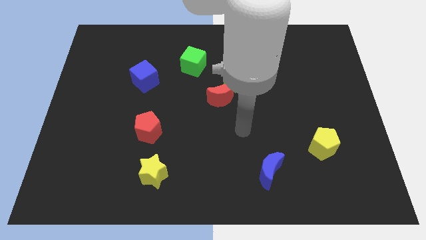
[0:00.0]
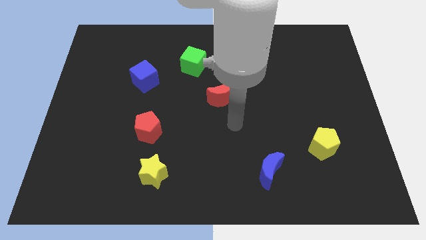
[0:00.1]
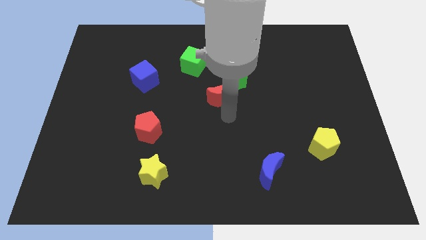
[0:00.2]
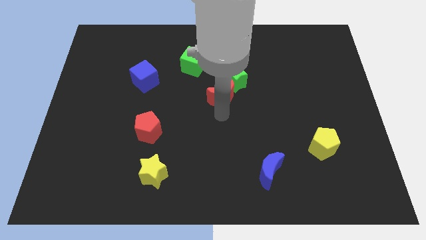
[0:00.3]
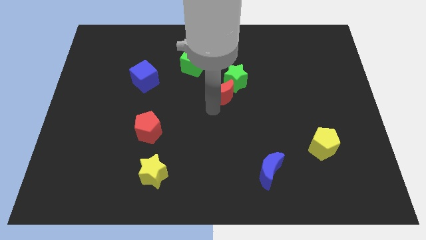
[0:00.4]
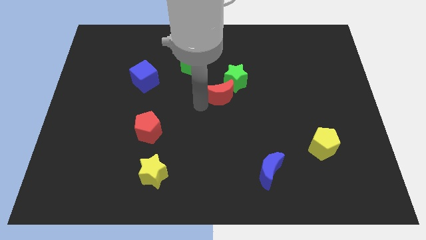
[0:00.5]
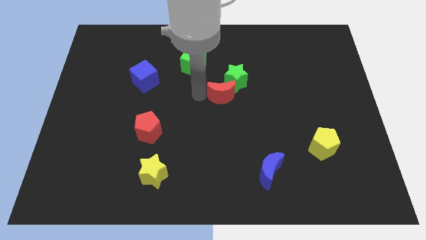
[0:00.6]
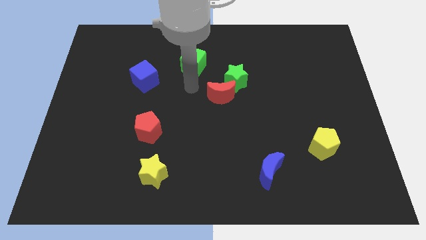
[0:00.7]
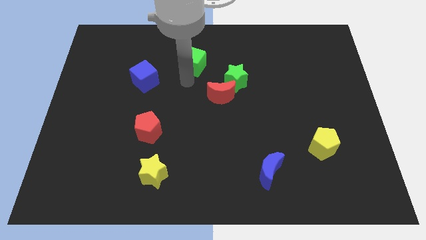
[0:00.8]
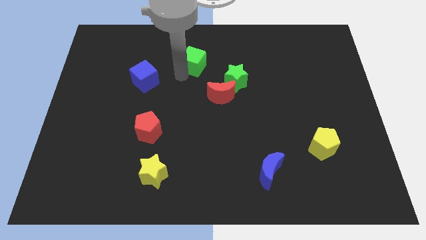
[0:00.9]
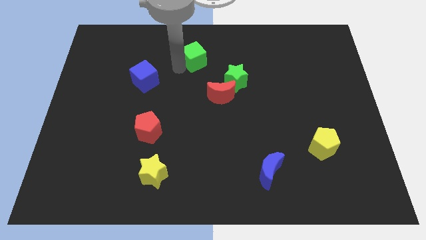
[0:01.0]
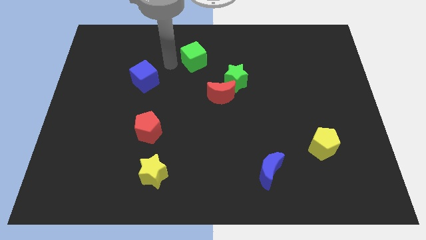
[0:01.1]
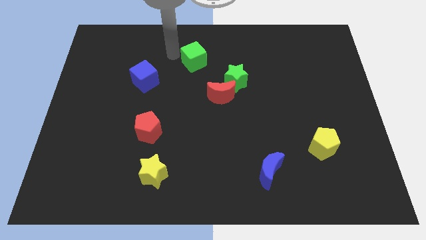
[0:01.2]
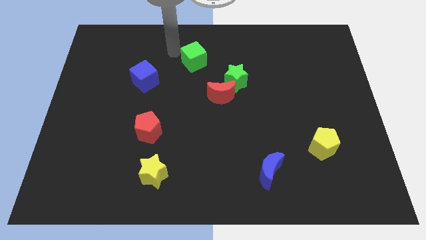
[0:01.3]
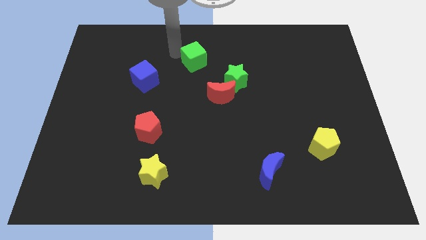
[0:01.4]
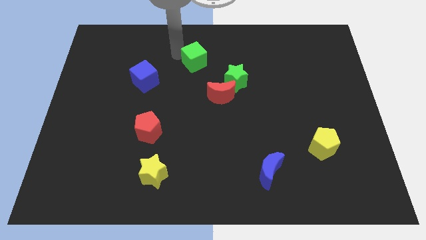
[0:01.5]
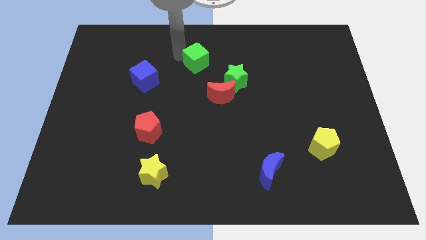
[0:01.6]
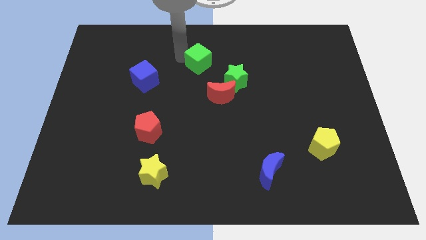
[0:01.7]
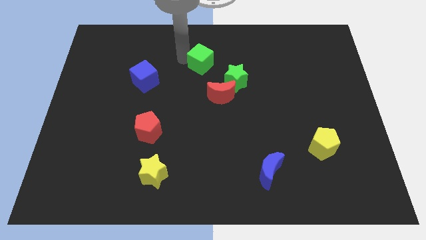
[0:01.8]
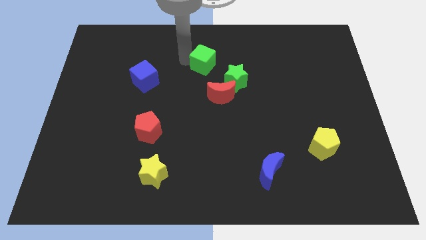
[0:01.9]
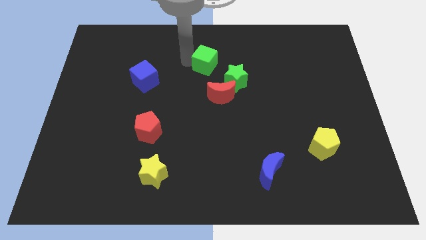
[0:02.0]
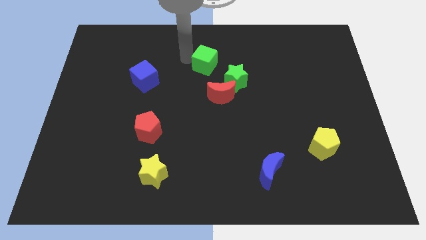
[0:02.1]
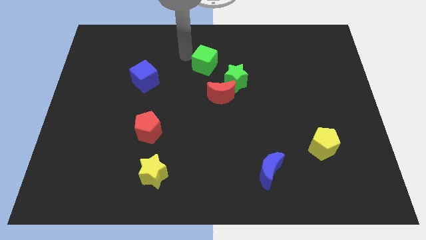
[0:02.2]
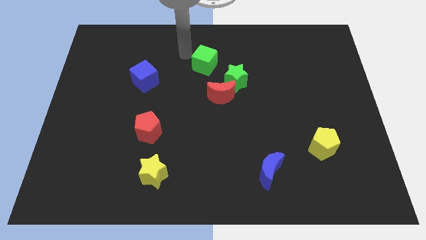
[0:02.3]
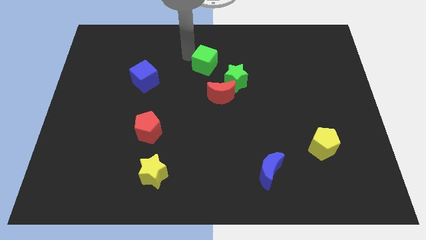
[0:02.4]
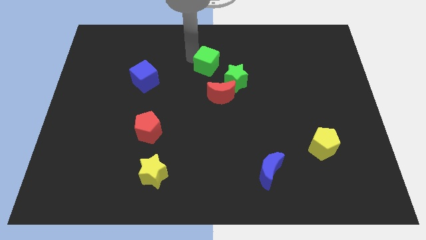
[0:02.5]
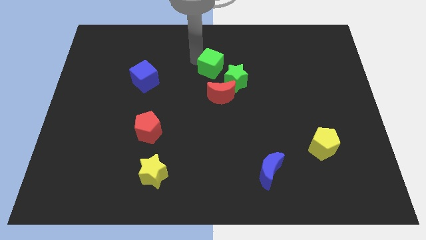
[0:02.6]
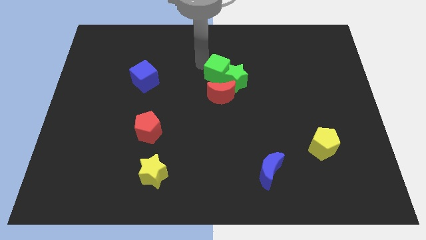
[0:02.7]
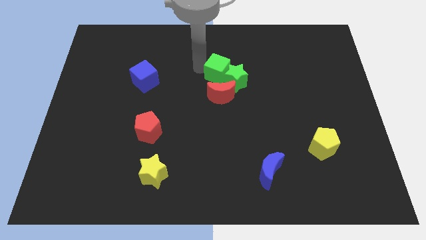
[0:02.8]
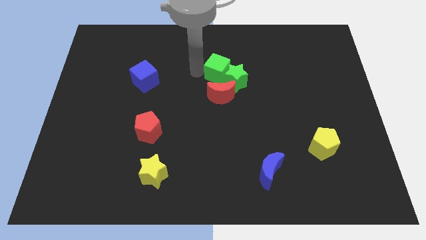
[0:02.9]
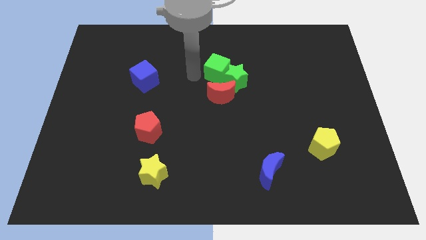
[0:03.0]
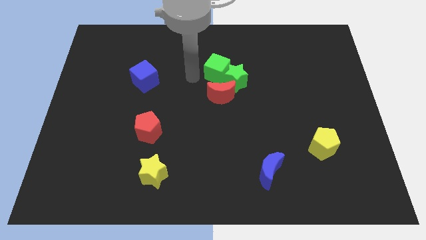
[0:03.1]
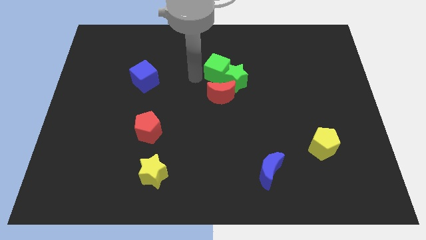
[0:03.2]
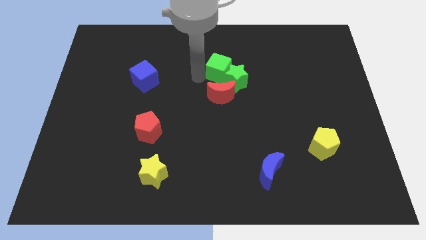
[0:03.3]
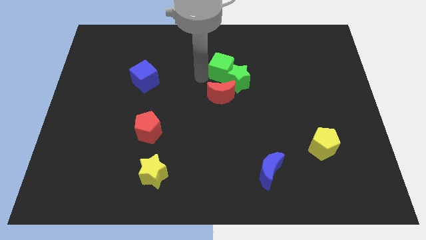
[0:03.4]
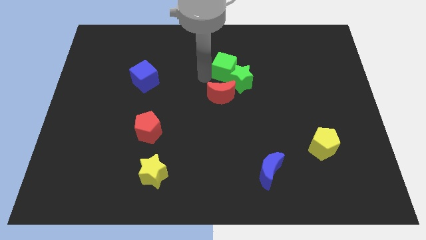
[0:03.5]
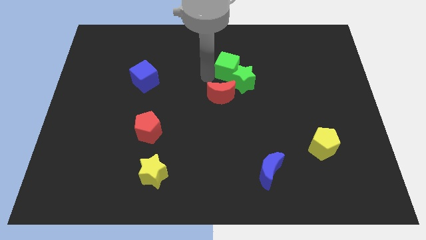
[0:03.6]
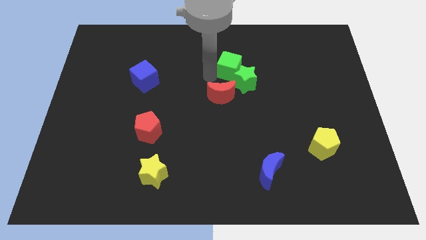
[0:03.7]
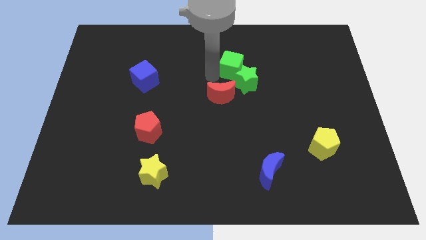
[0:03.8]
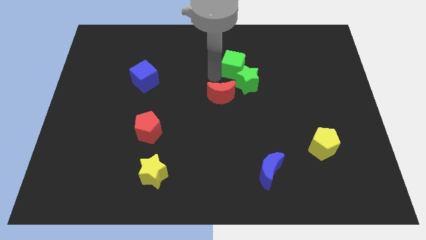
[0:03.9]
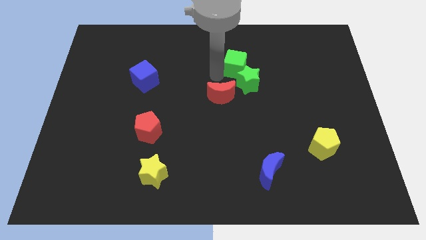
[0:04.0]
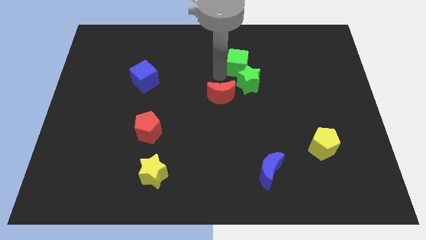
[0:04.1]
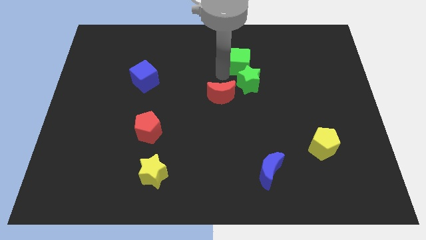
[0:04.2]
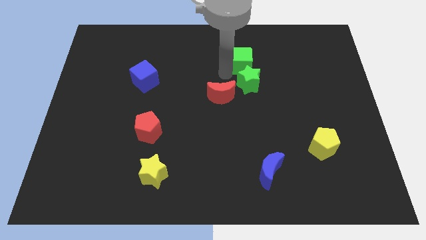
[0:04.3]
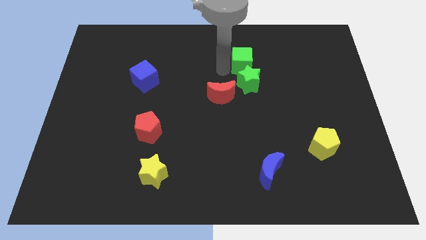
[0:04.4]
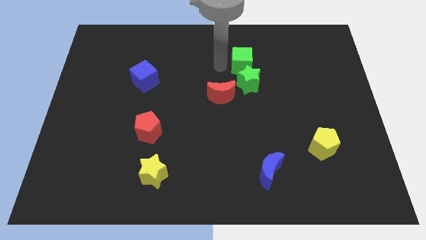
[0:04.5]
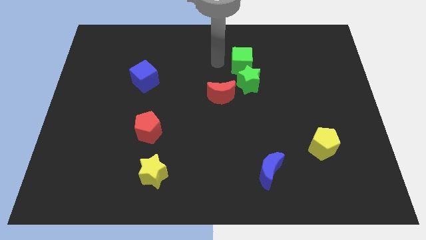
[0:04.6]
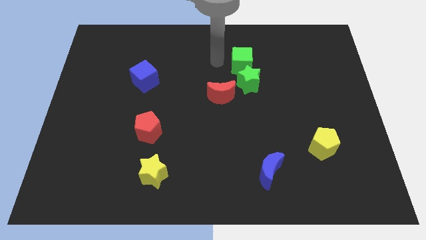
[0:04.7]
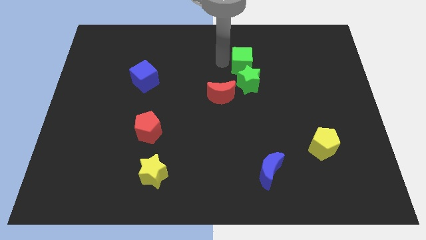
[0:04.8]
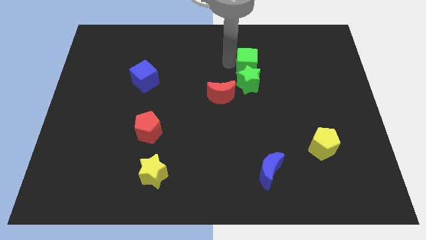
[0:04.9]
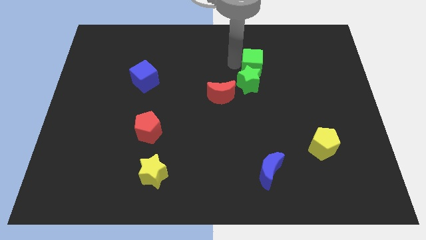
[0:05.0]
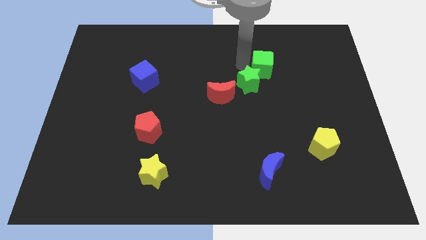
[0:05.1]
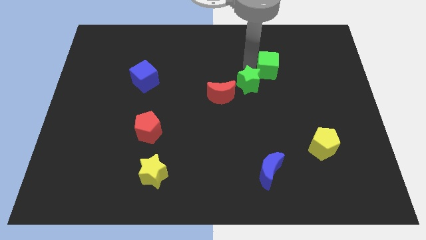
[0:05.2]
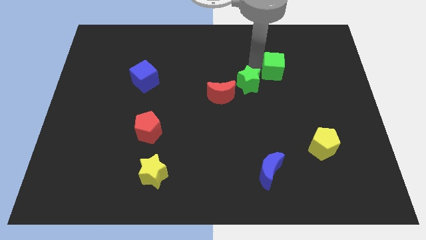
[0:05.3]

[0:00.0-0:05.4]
push the green cube right

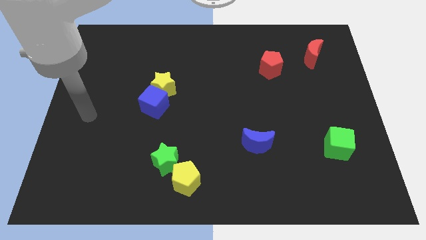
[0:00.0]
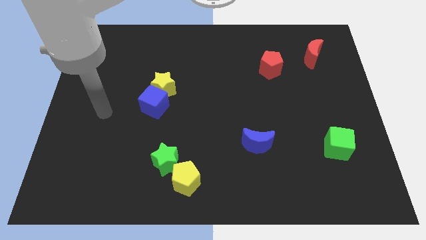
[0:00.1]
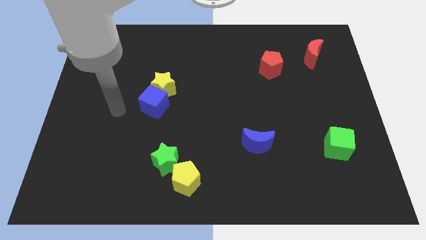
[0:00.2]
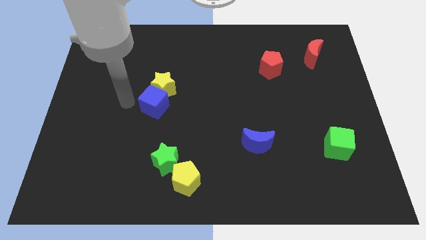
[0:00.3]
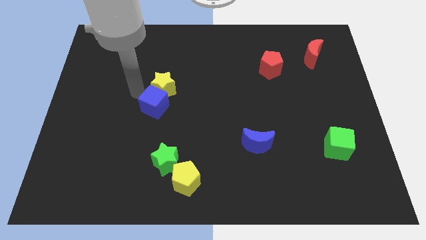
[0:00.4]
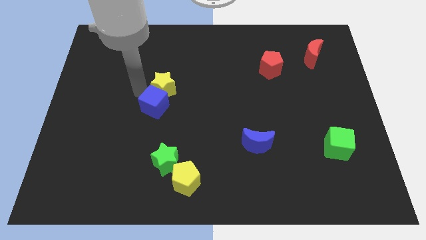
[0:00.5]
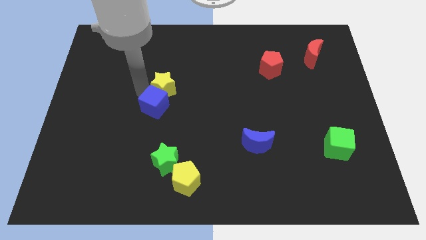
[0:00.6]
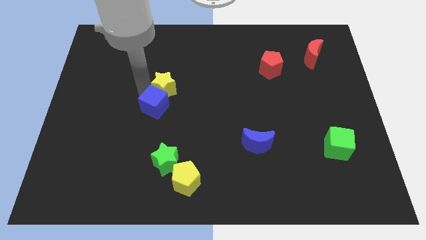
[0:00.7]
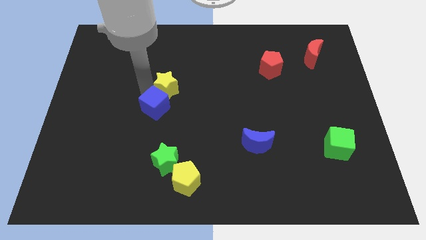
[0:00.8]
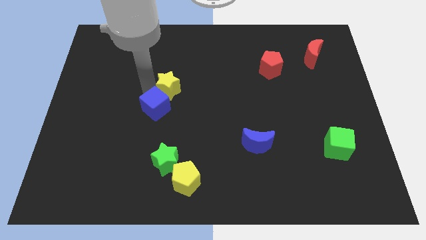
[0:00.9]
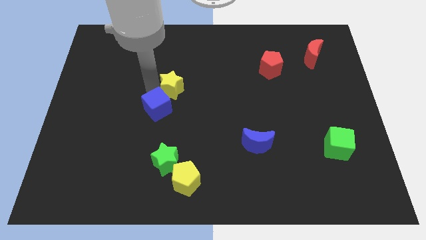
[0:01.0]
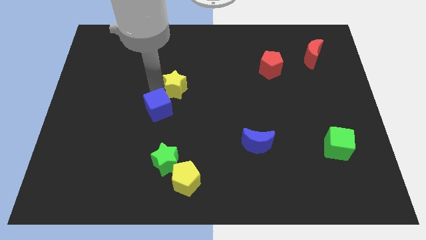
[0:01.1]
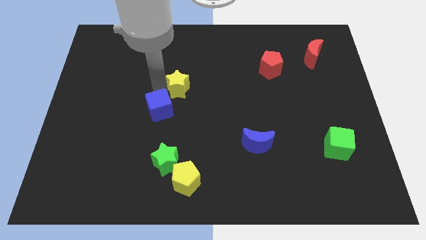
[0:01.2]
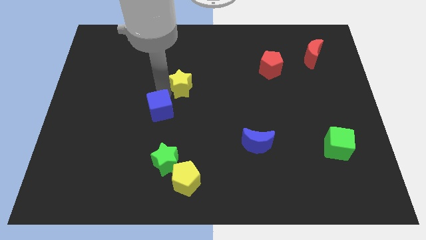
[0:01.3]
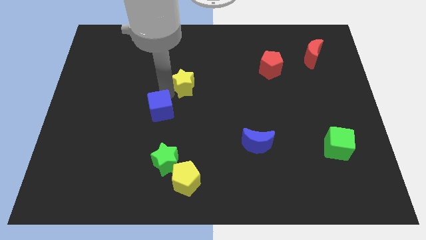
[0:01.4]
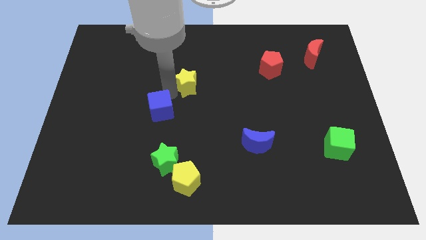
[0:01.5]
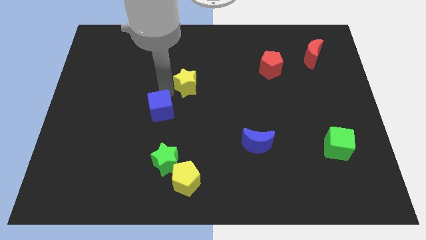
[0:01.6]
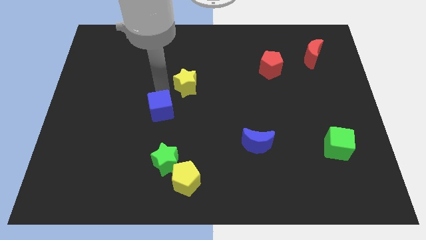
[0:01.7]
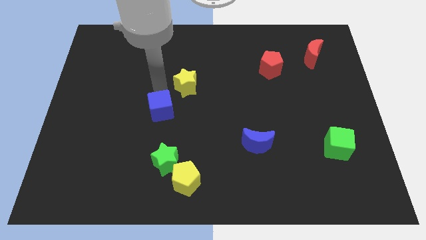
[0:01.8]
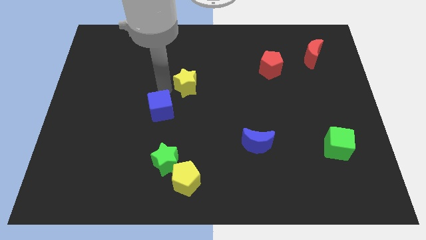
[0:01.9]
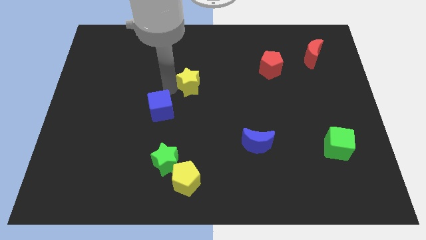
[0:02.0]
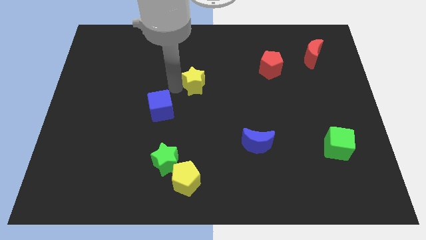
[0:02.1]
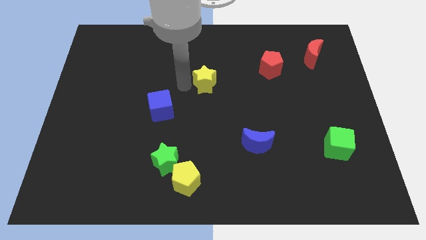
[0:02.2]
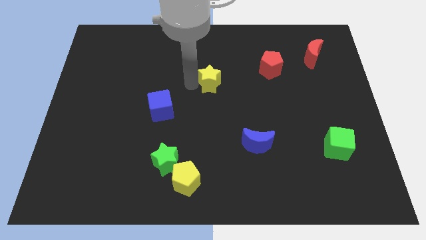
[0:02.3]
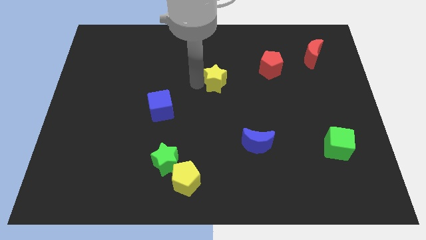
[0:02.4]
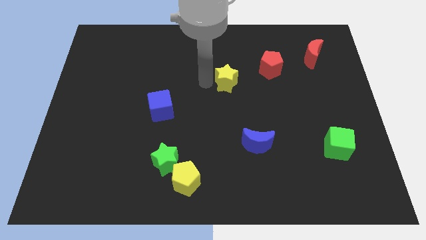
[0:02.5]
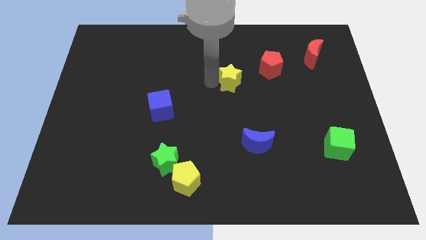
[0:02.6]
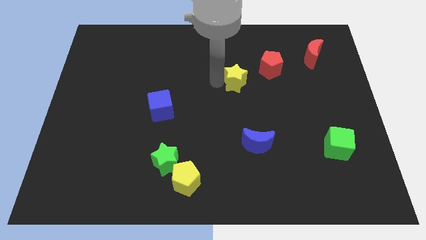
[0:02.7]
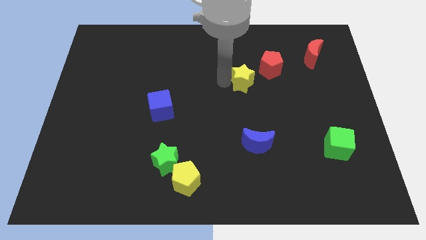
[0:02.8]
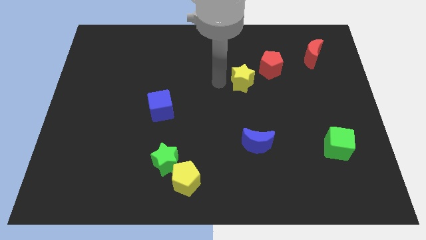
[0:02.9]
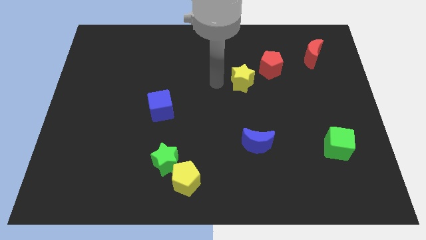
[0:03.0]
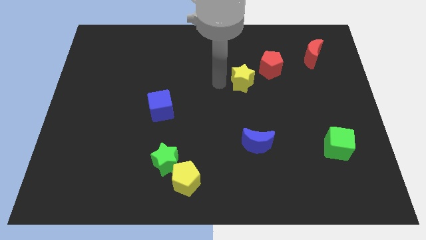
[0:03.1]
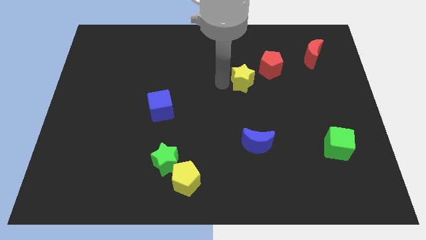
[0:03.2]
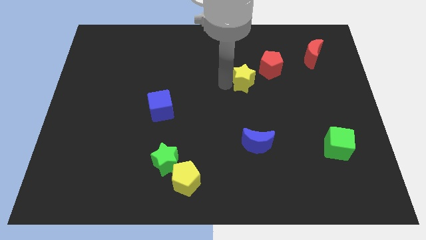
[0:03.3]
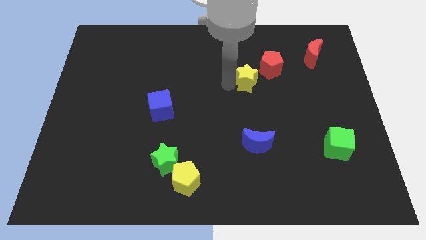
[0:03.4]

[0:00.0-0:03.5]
push the yellow star to the right
